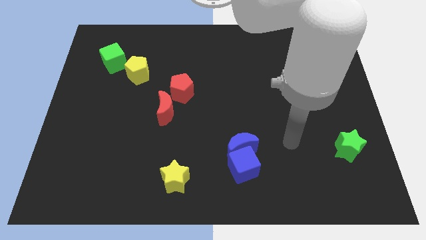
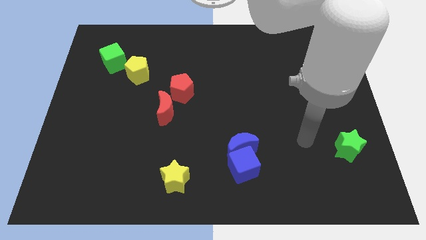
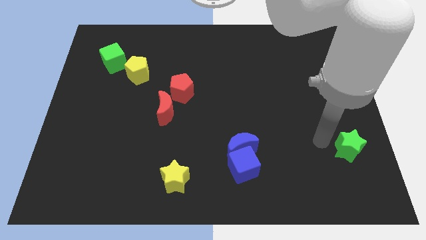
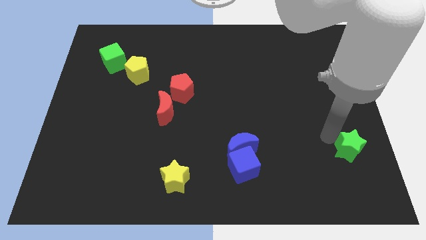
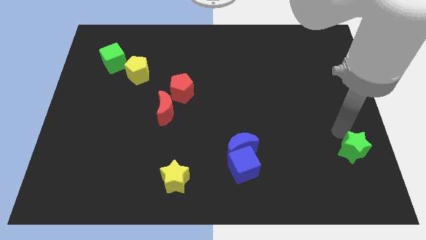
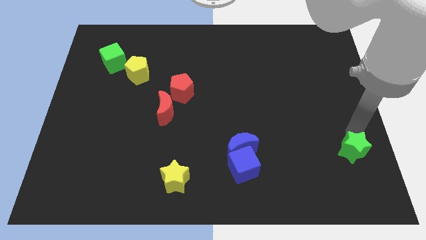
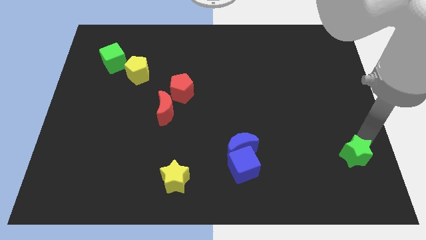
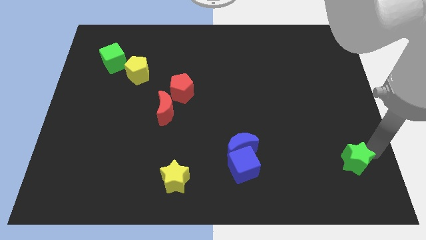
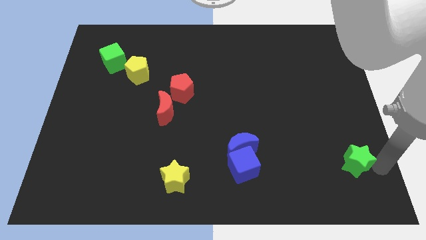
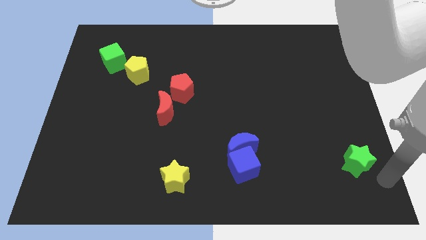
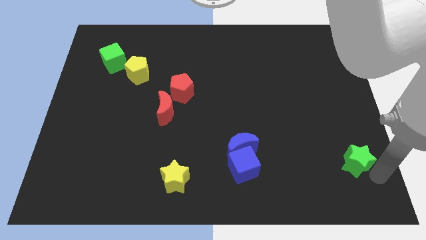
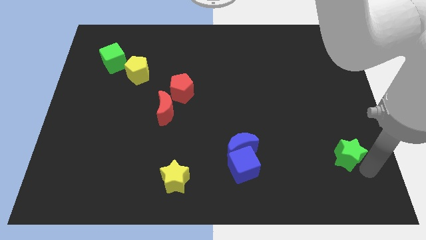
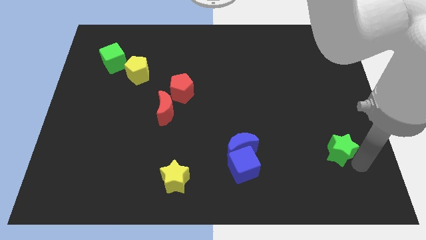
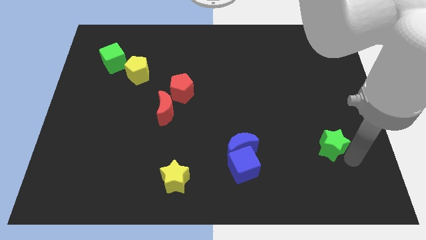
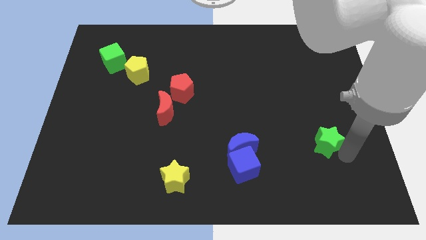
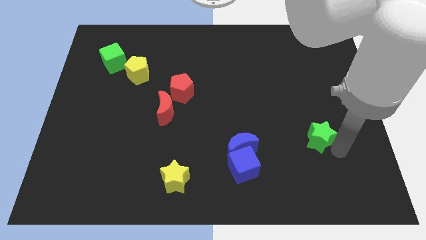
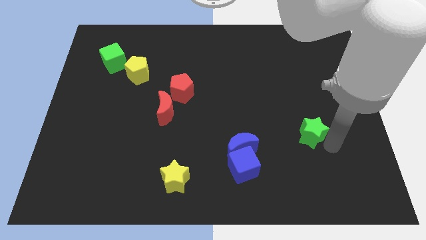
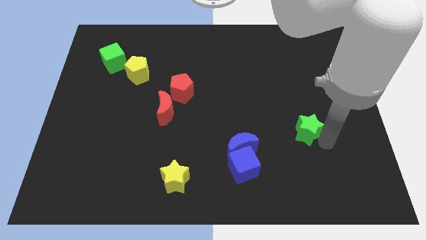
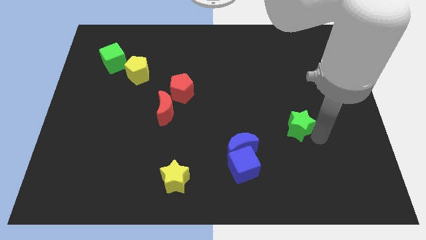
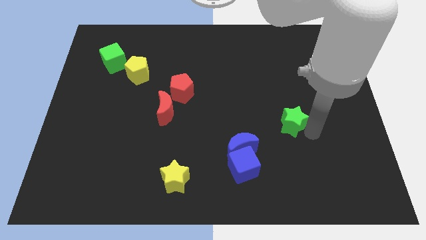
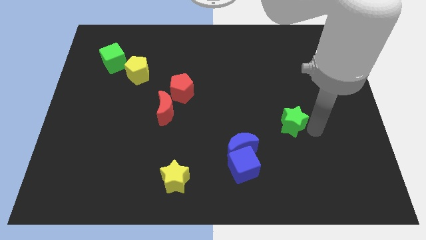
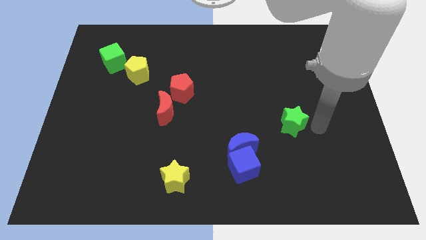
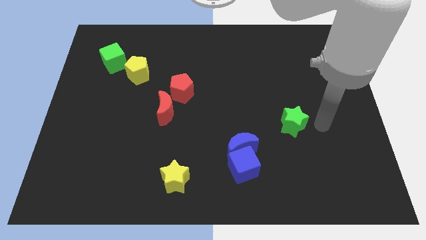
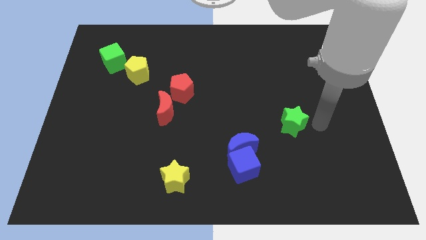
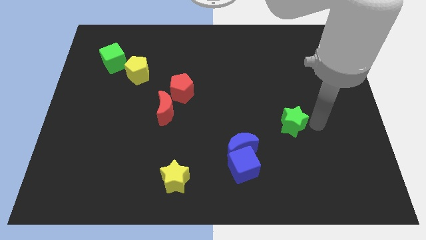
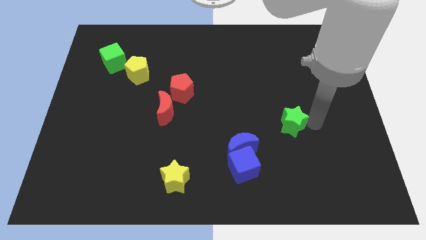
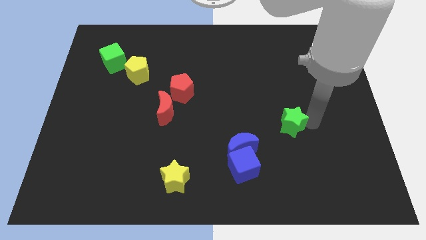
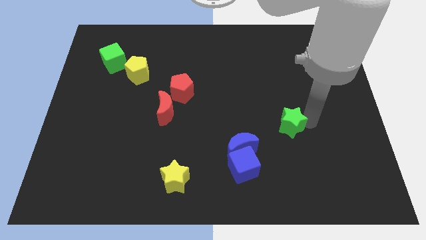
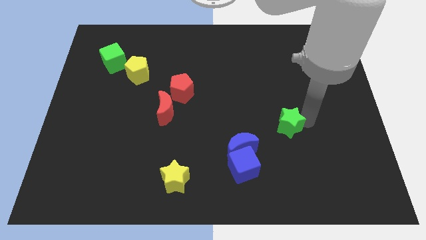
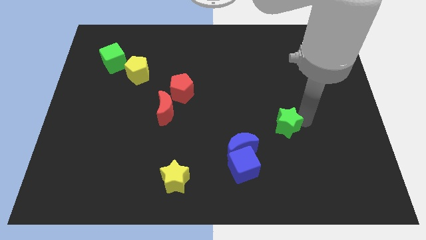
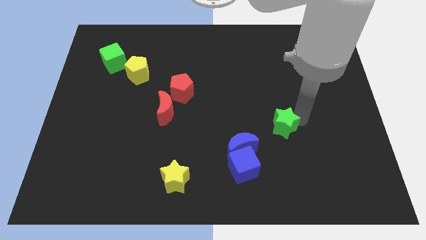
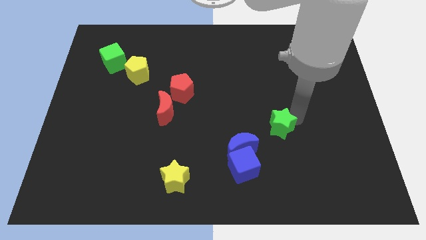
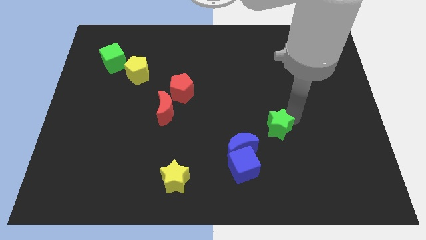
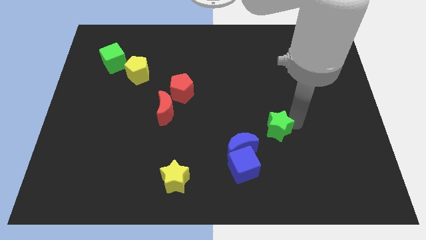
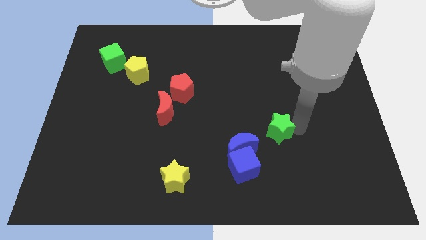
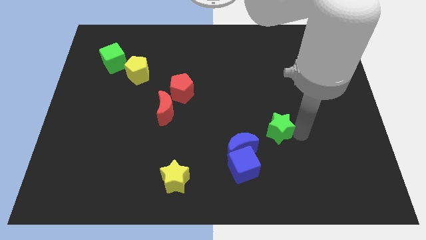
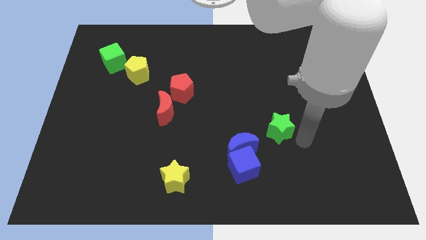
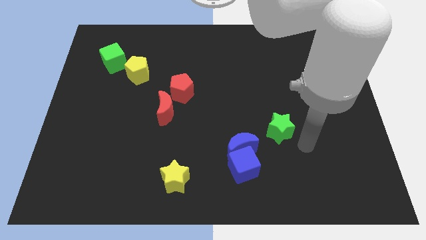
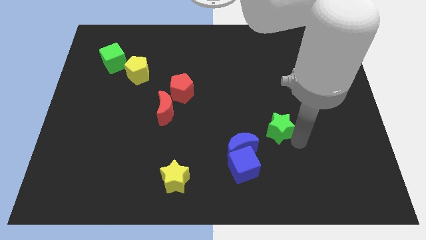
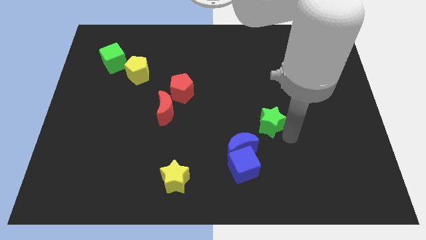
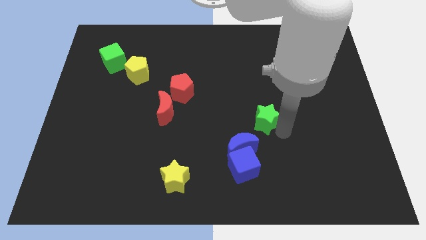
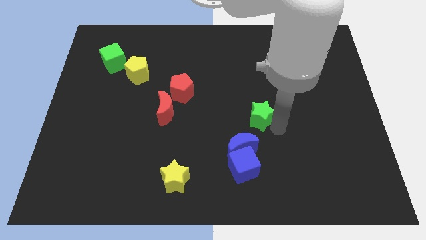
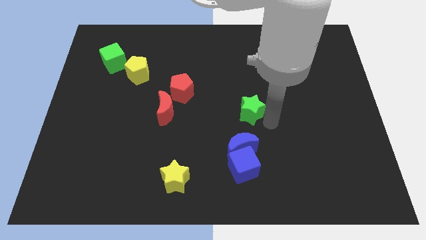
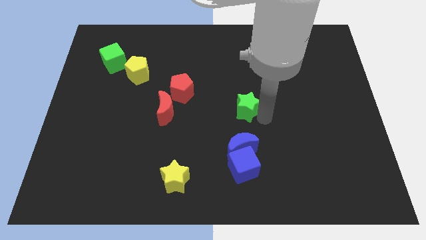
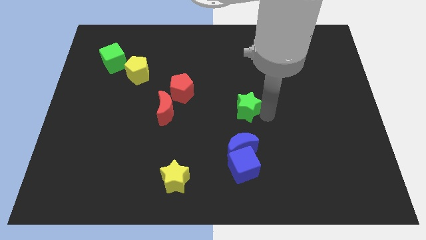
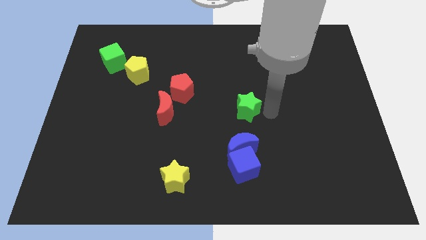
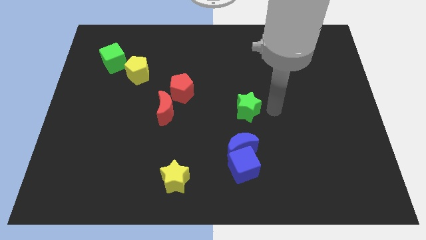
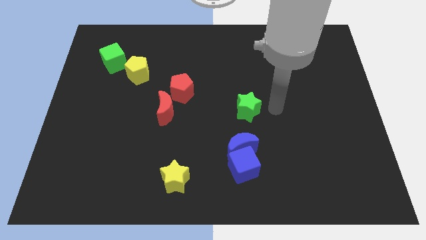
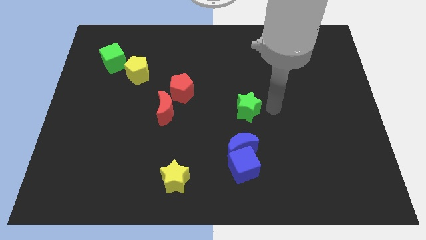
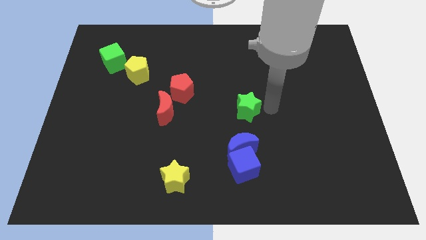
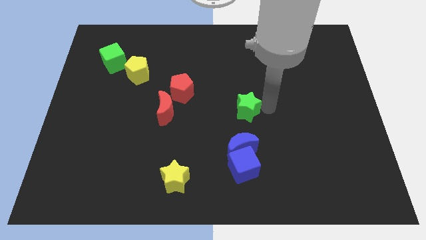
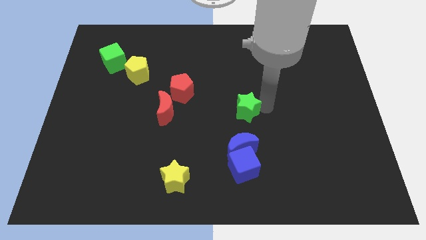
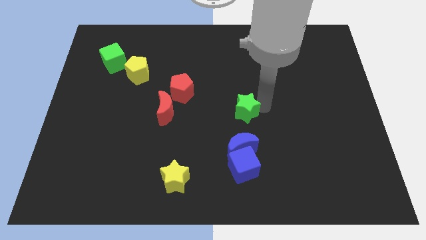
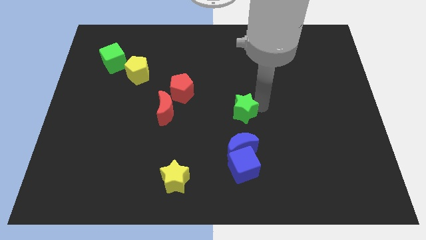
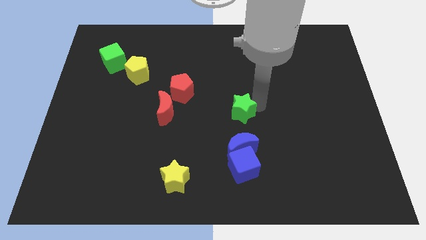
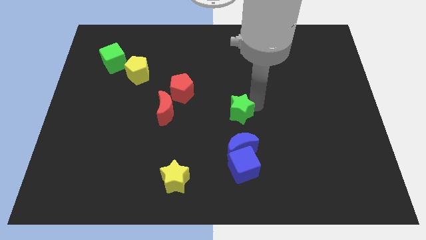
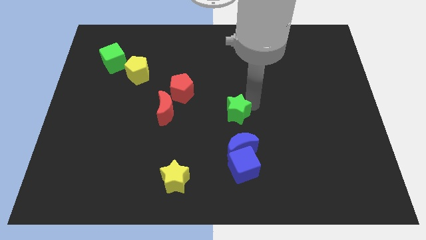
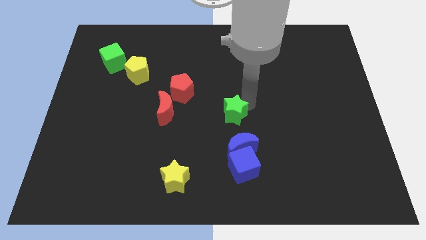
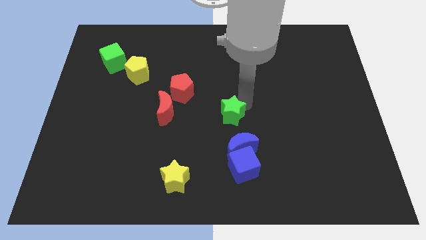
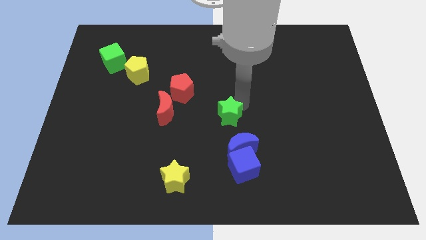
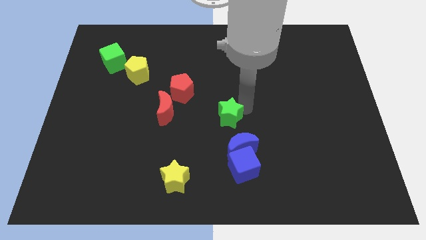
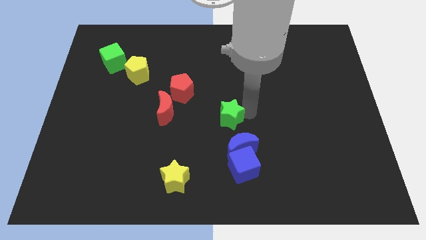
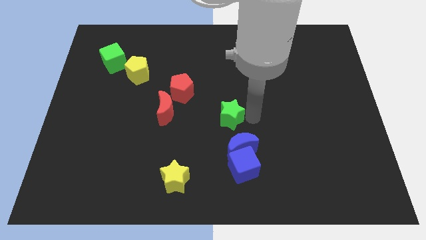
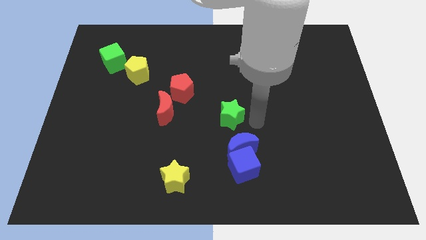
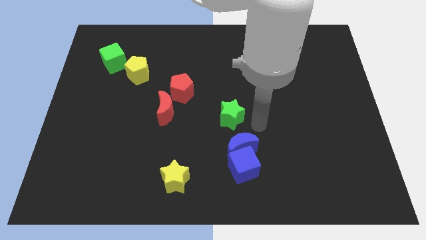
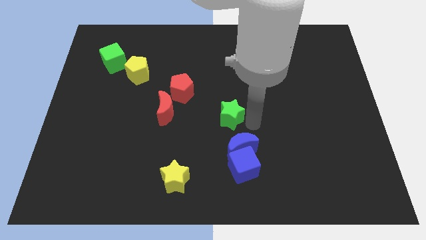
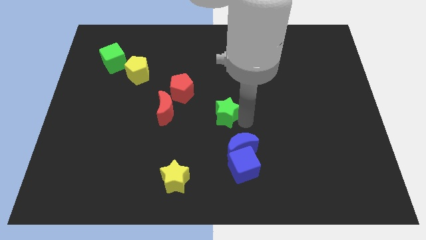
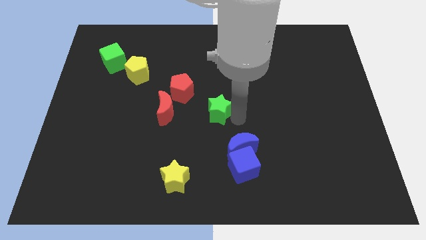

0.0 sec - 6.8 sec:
push the green star diagonally down and to the right of the red pentagon
